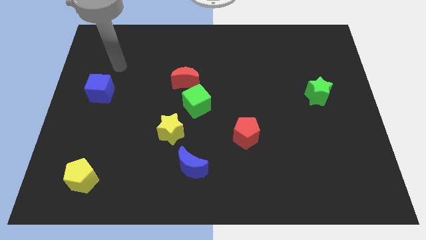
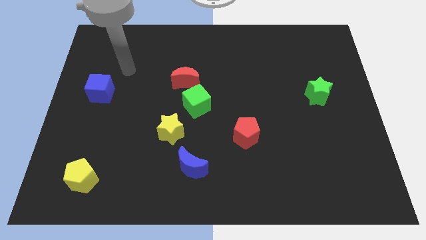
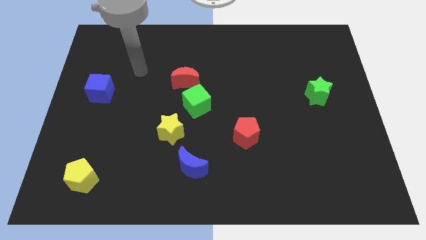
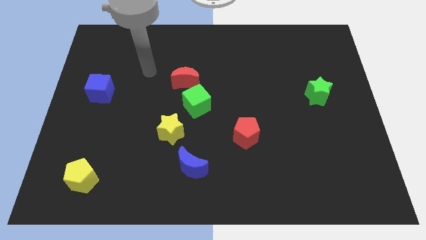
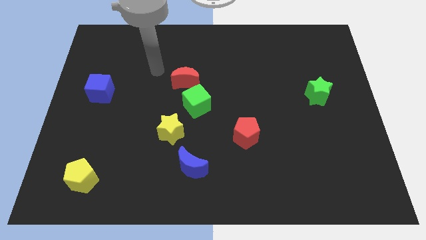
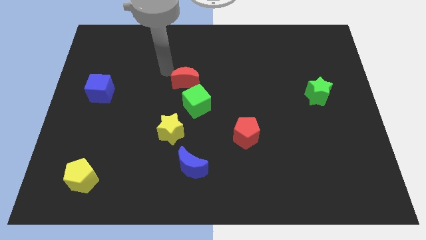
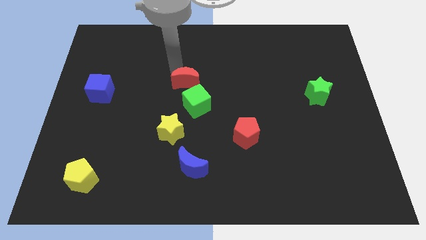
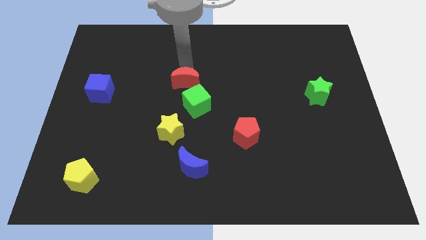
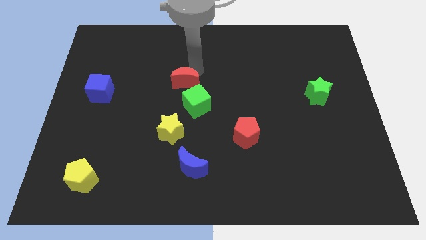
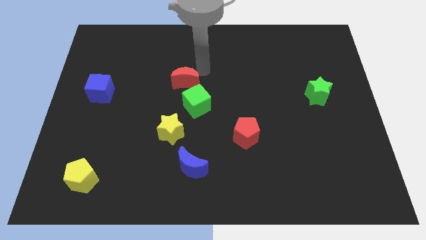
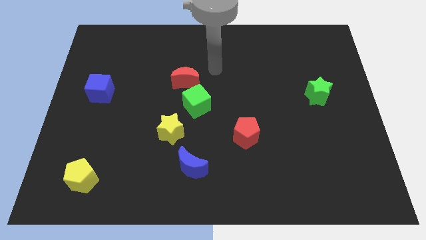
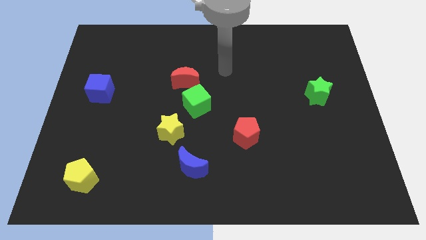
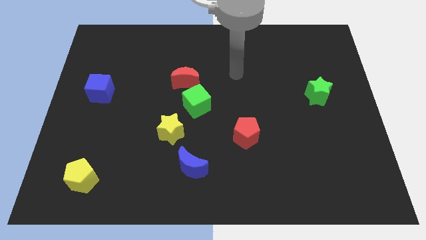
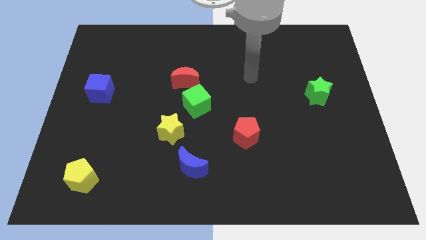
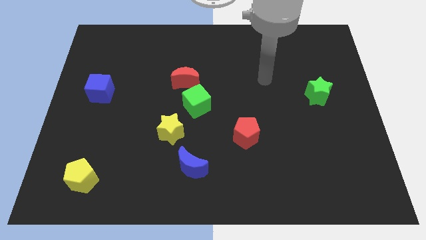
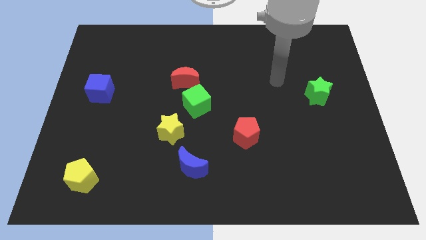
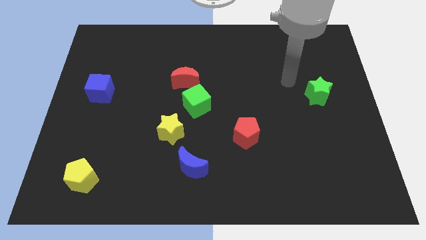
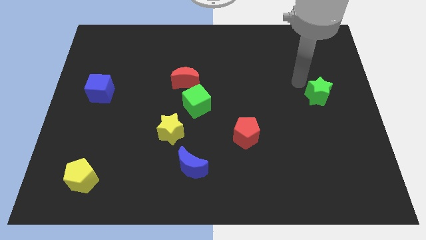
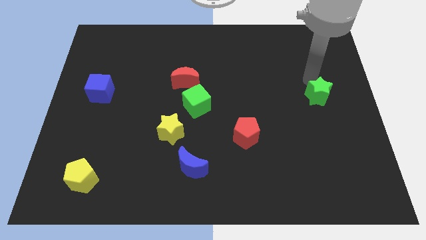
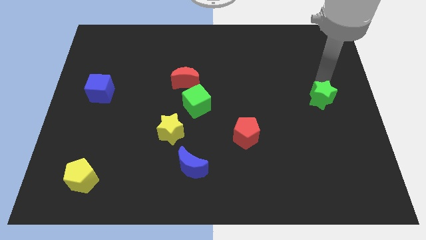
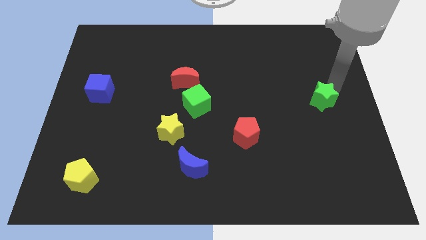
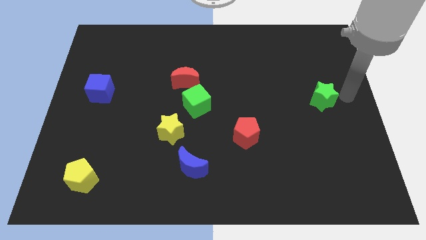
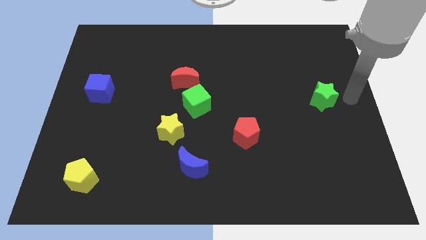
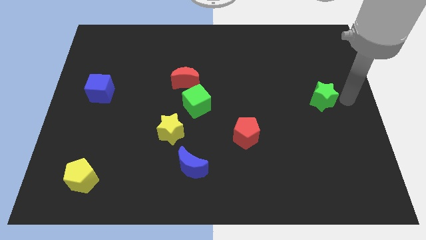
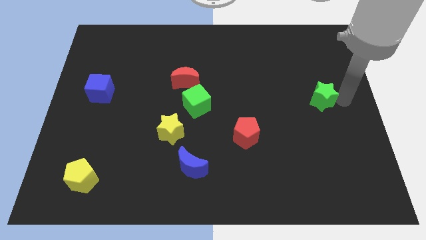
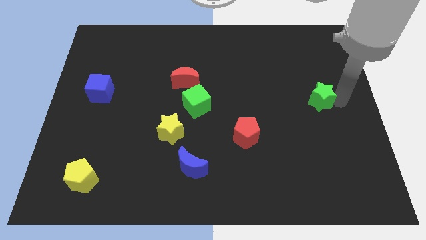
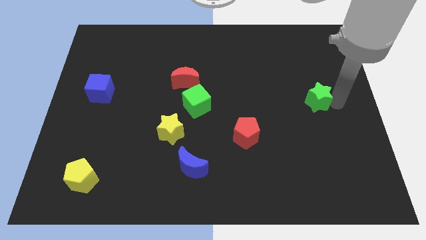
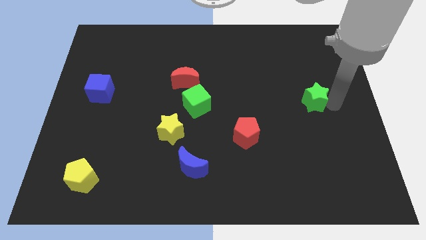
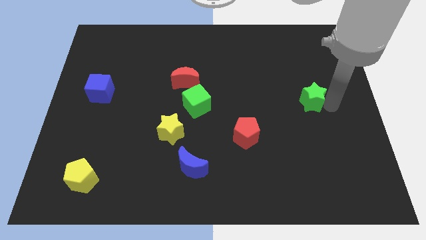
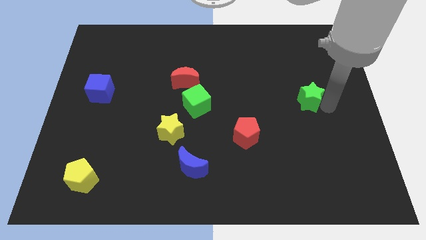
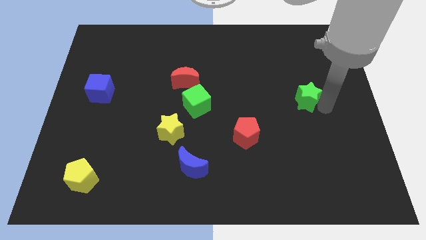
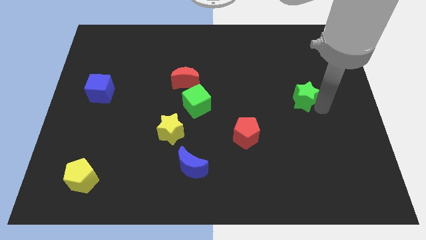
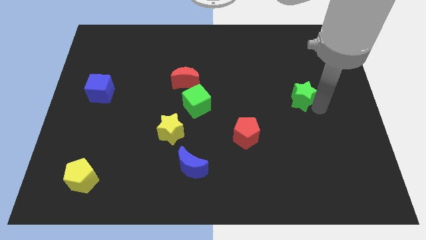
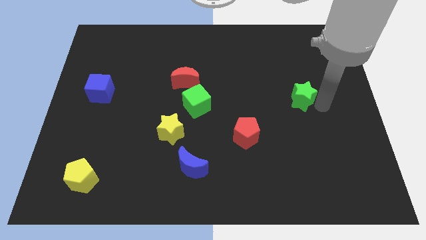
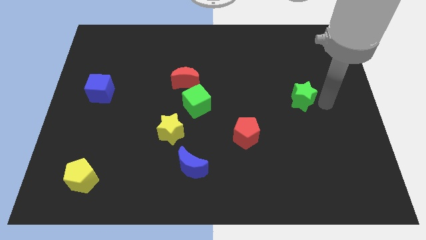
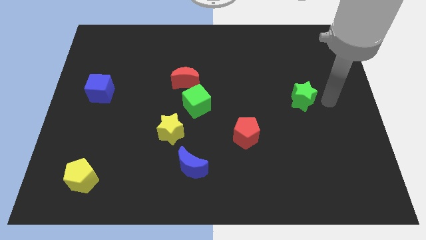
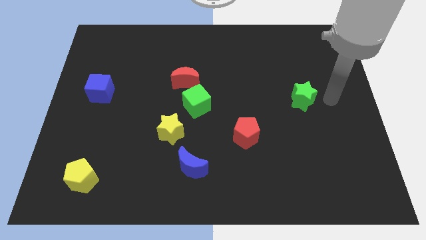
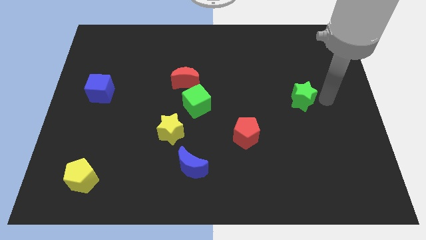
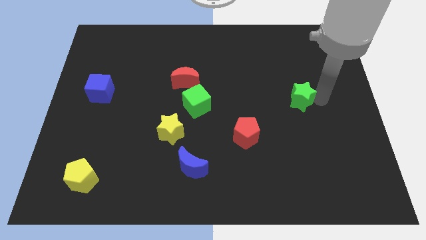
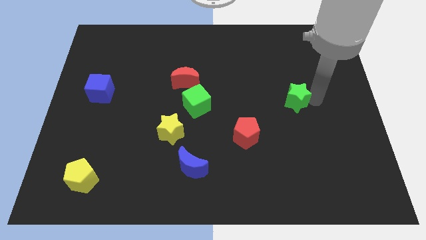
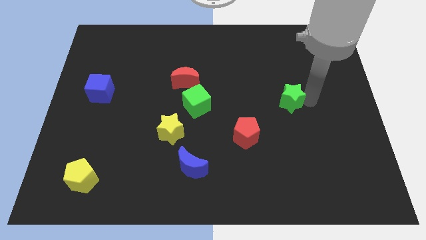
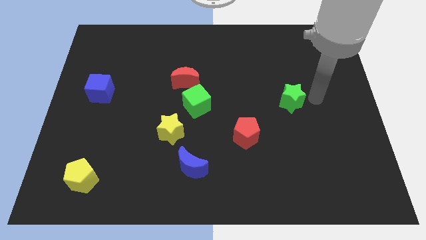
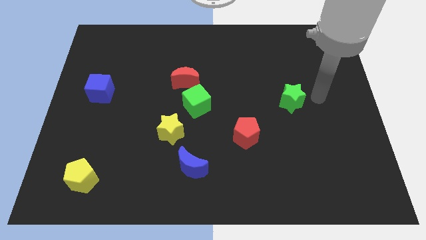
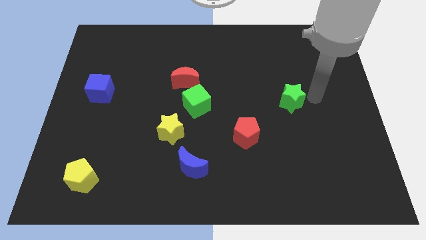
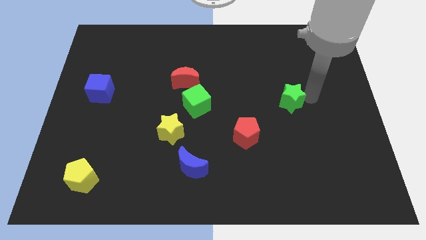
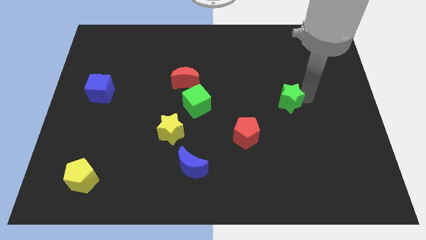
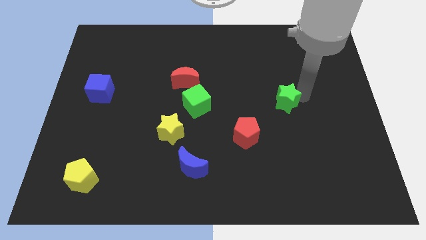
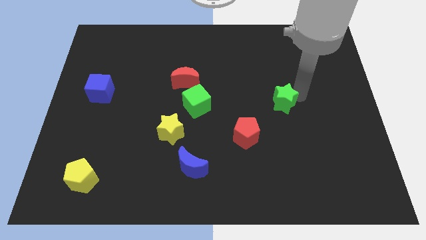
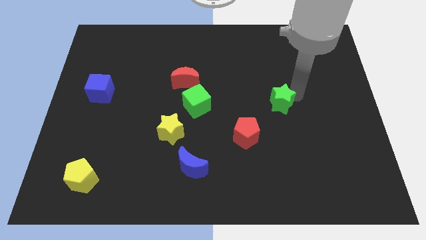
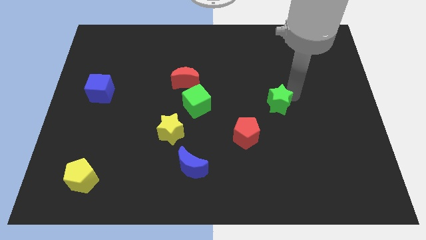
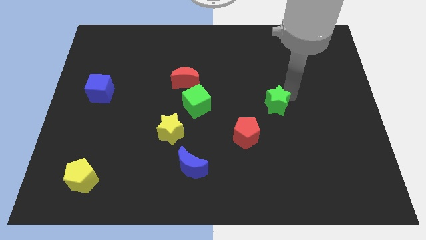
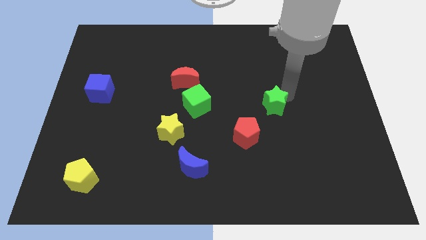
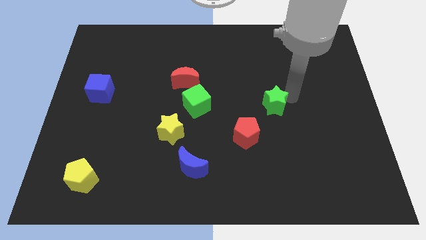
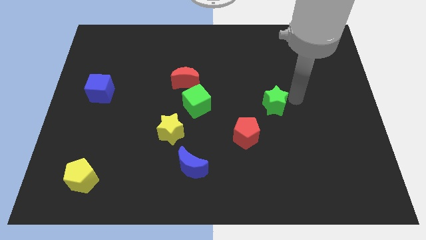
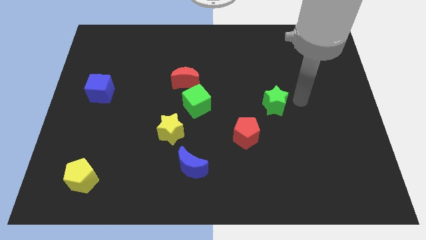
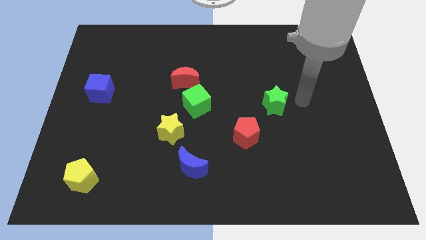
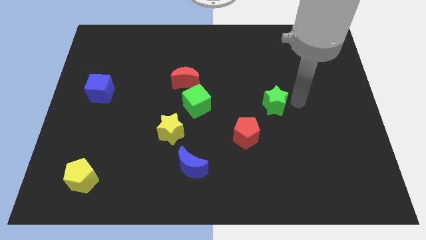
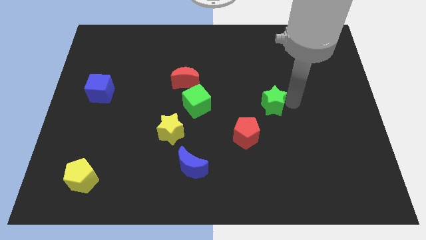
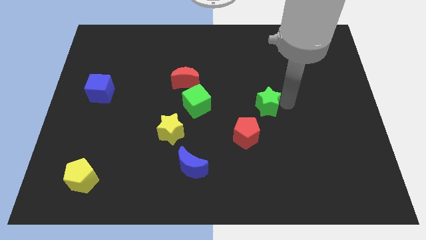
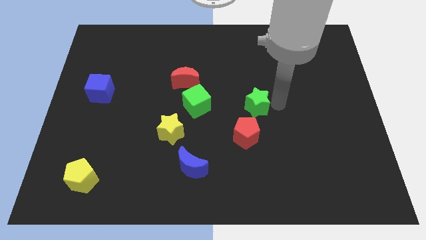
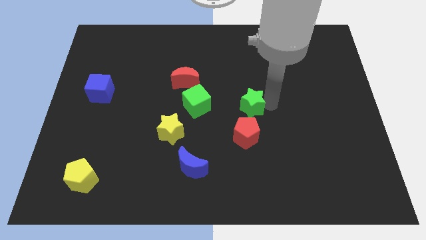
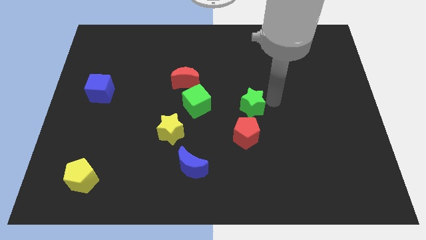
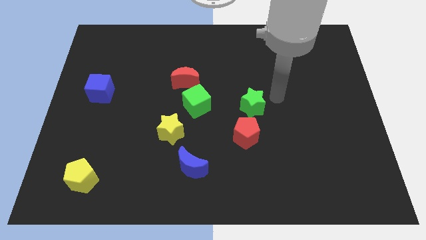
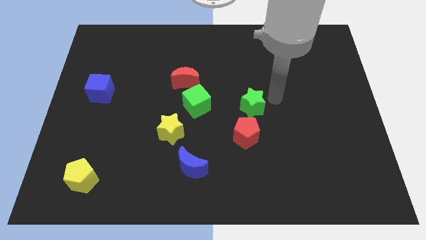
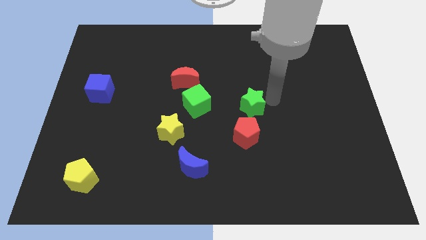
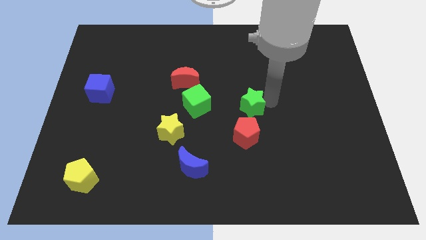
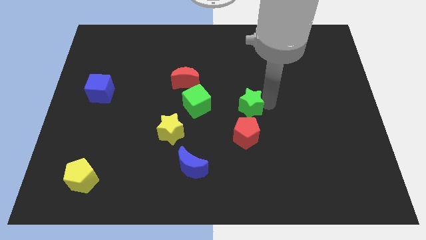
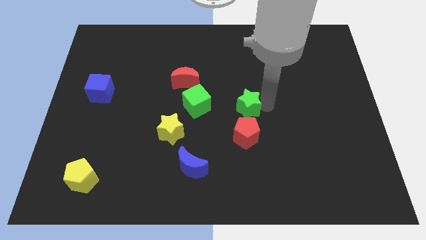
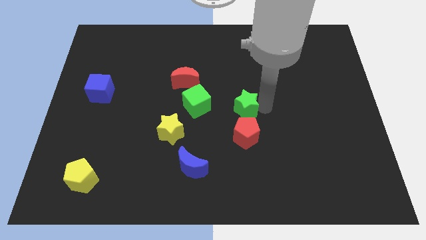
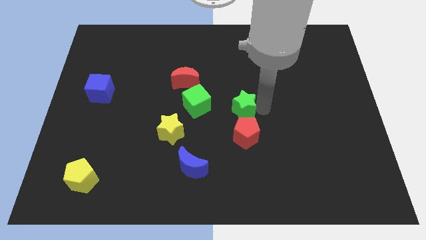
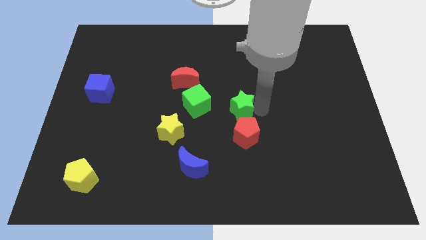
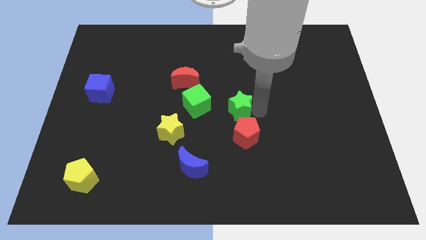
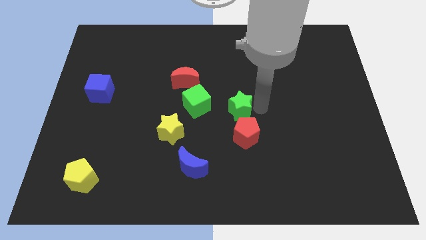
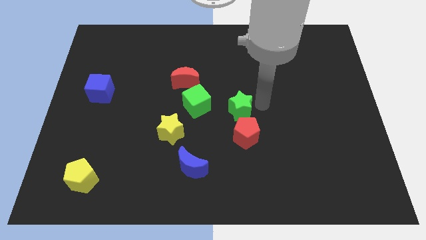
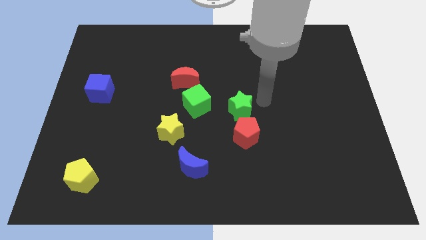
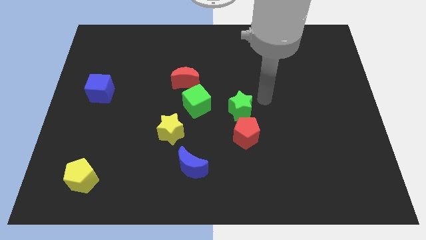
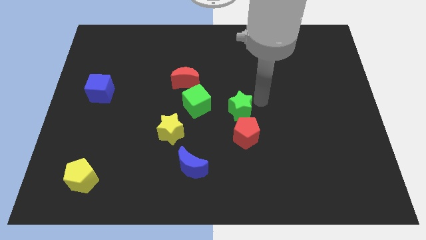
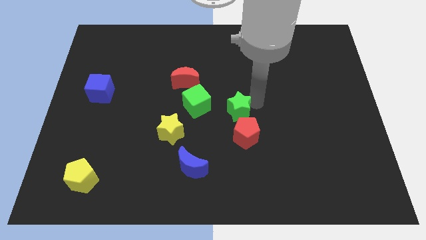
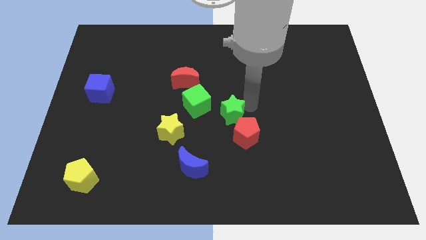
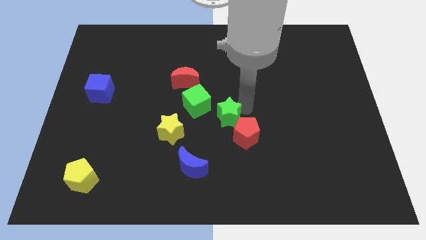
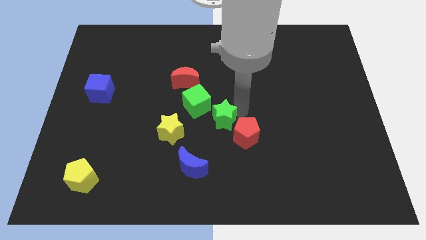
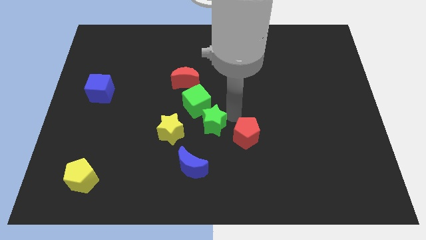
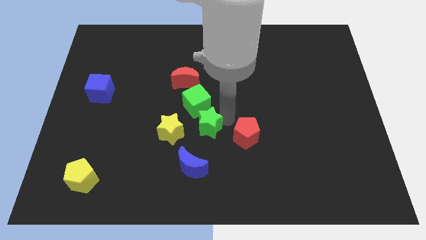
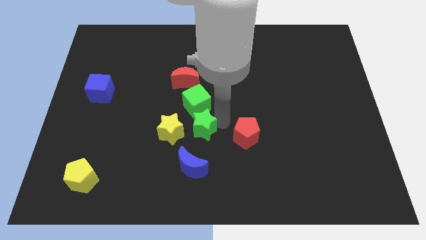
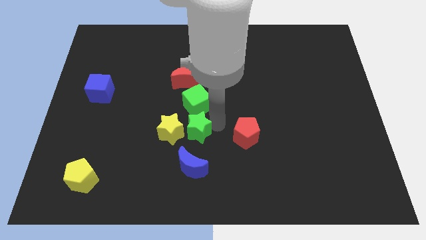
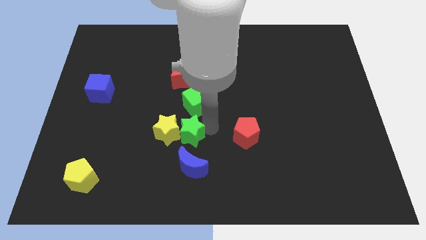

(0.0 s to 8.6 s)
slide the green star next to the yellow star
